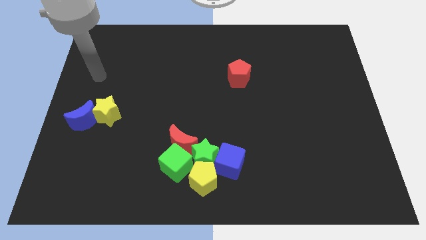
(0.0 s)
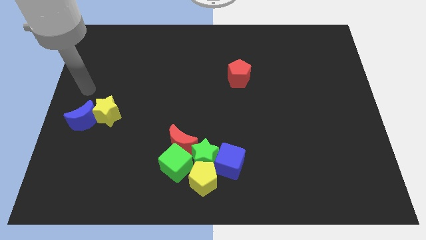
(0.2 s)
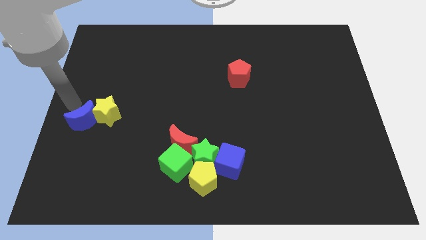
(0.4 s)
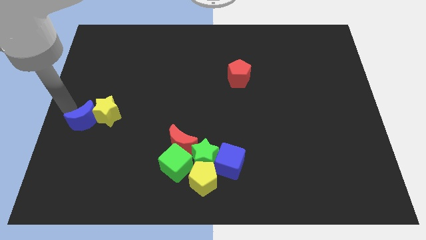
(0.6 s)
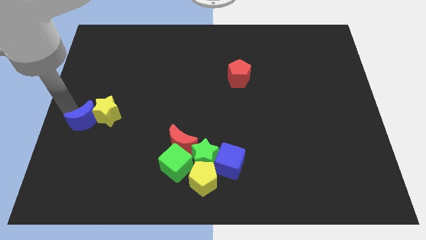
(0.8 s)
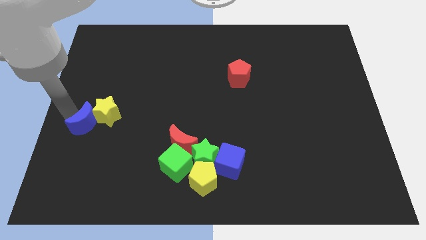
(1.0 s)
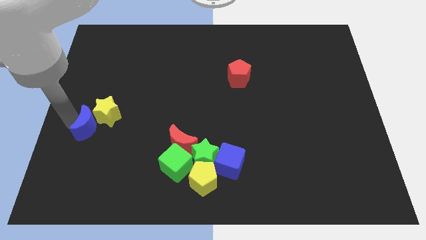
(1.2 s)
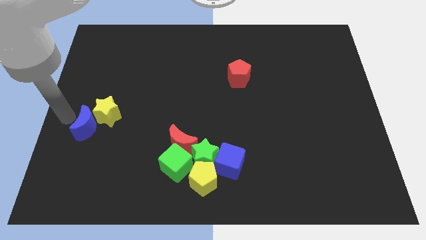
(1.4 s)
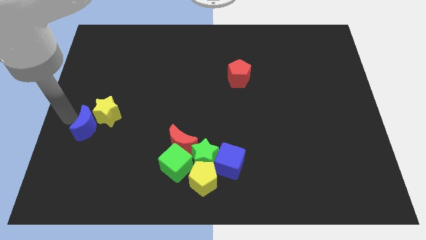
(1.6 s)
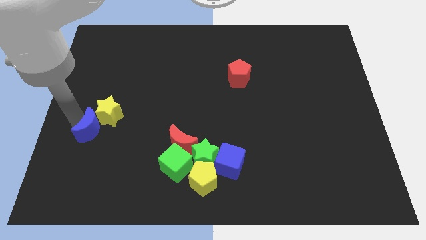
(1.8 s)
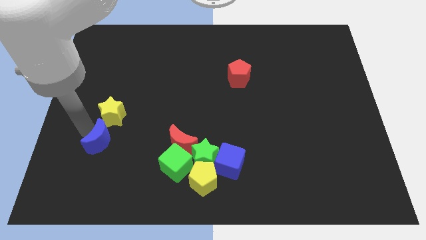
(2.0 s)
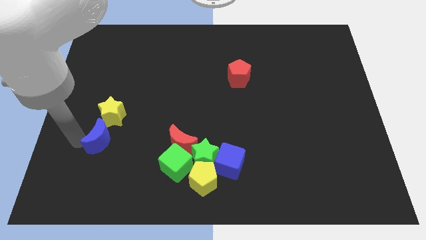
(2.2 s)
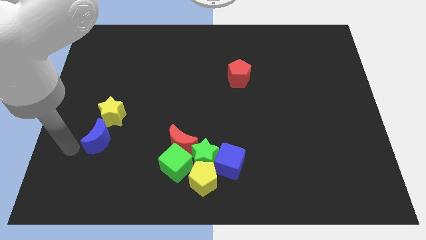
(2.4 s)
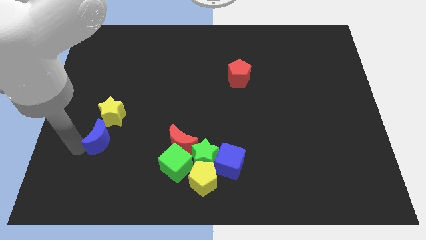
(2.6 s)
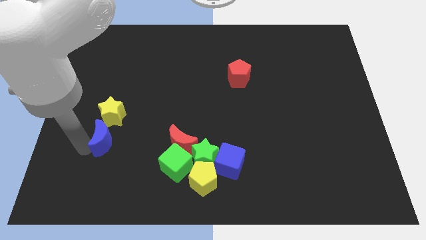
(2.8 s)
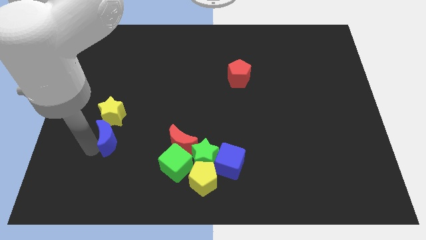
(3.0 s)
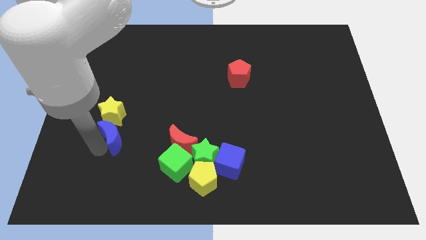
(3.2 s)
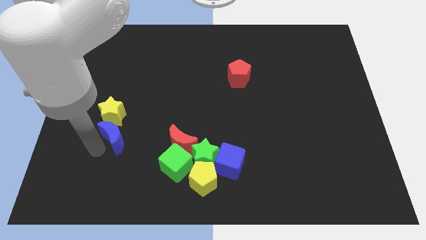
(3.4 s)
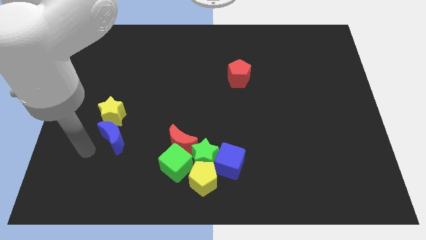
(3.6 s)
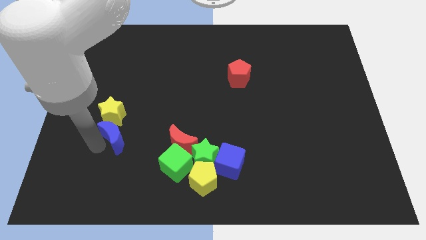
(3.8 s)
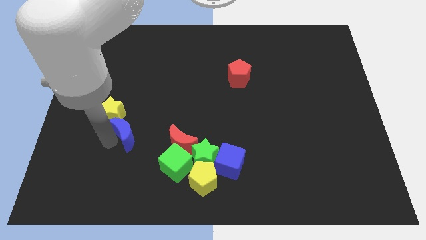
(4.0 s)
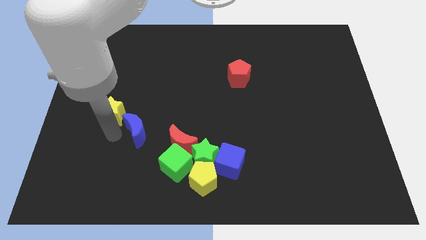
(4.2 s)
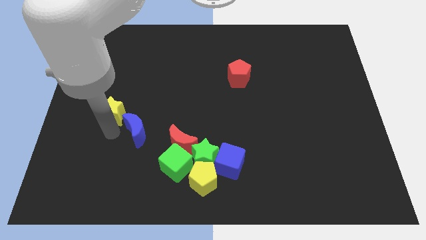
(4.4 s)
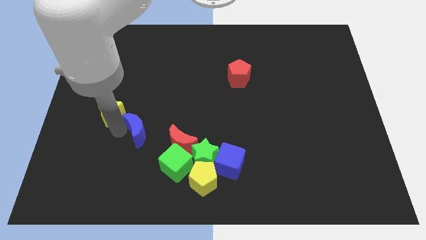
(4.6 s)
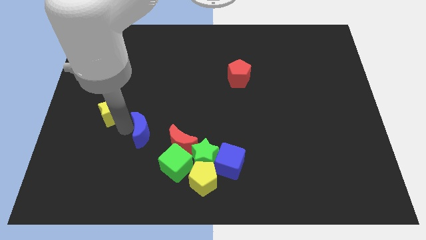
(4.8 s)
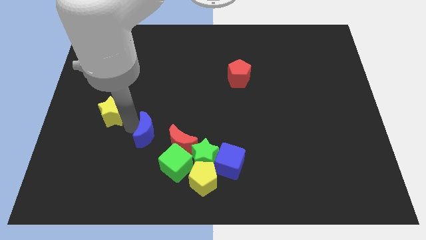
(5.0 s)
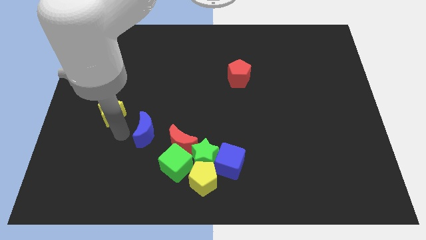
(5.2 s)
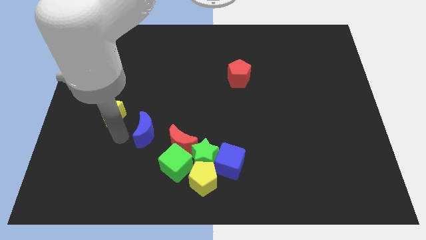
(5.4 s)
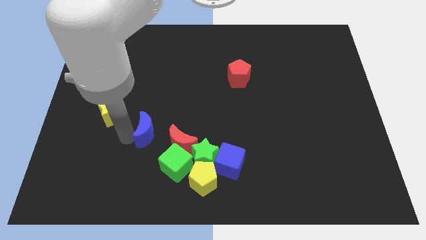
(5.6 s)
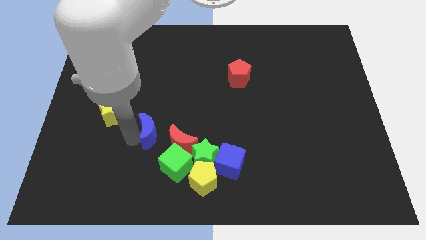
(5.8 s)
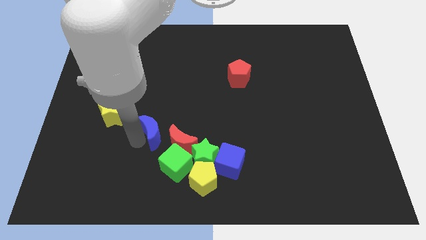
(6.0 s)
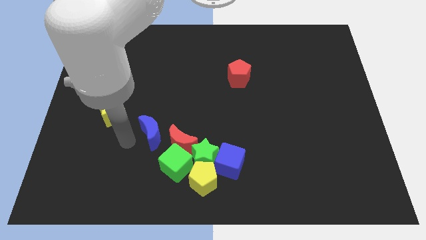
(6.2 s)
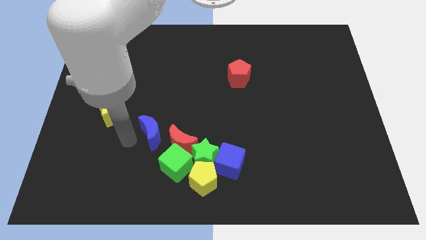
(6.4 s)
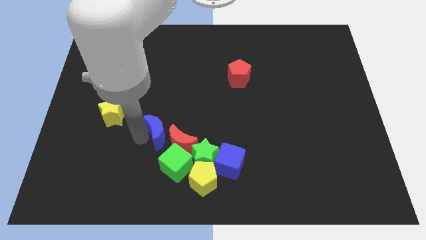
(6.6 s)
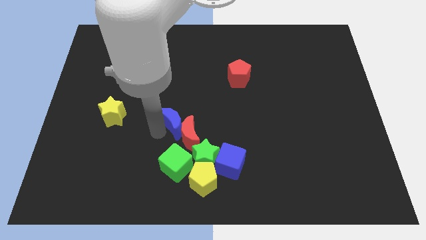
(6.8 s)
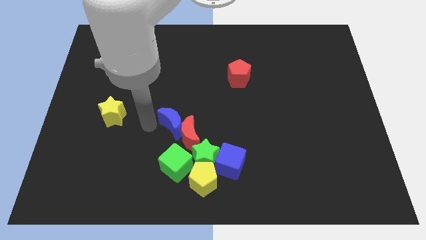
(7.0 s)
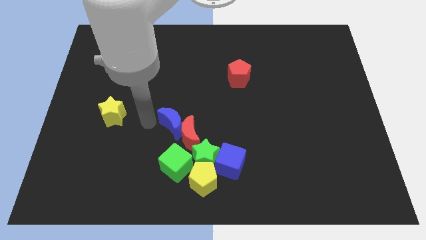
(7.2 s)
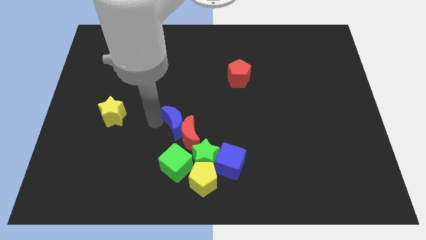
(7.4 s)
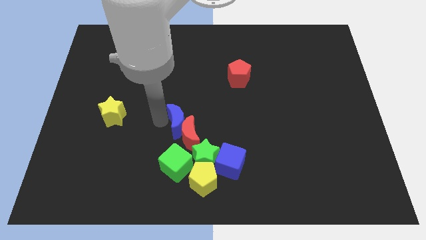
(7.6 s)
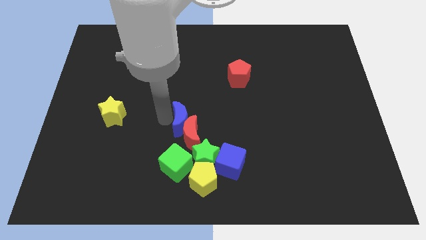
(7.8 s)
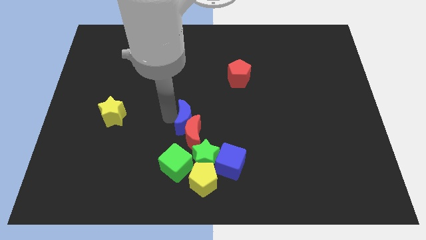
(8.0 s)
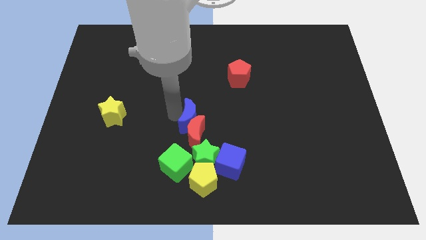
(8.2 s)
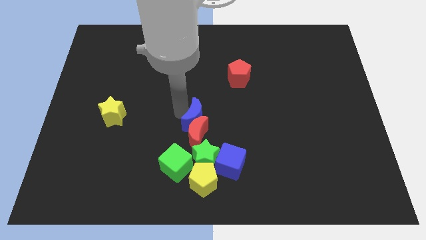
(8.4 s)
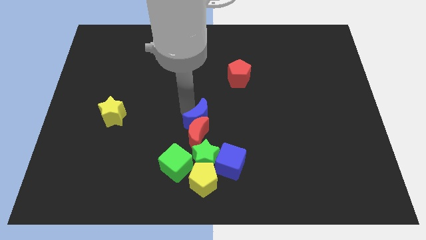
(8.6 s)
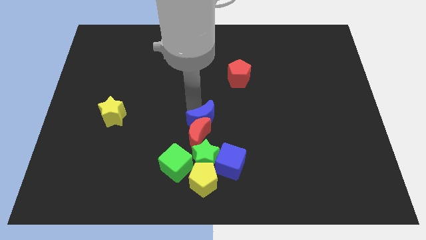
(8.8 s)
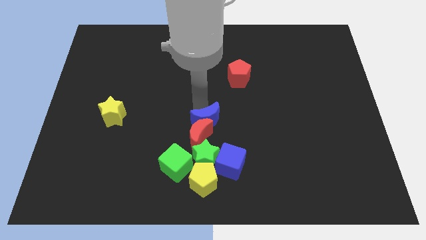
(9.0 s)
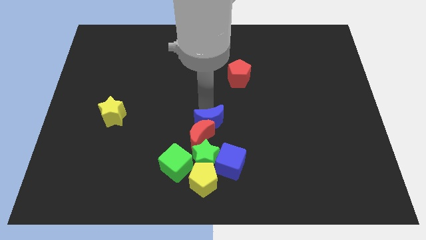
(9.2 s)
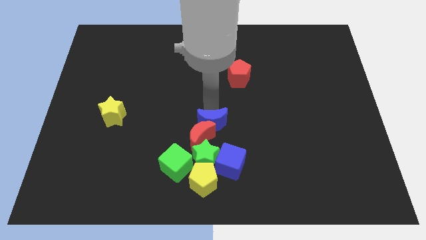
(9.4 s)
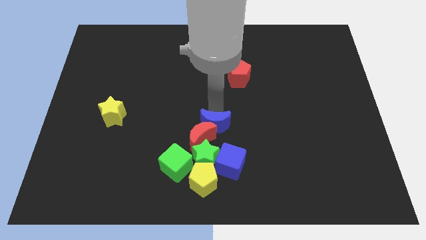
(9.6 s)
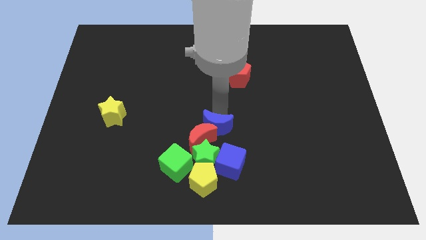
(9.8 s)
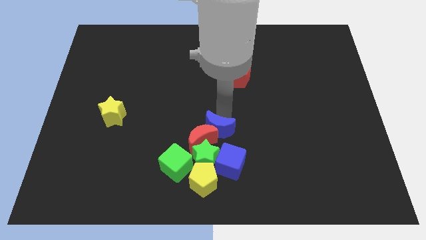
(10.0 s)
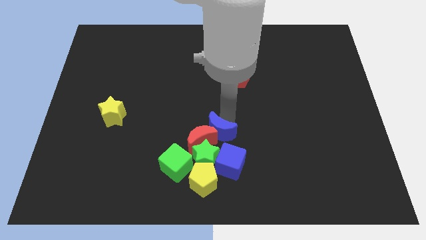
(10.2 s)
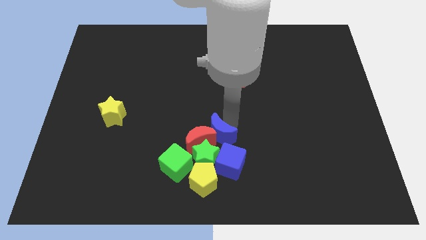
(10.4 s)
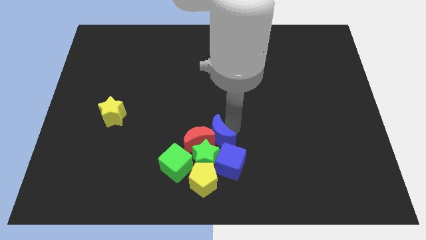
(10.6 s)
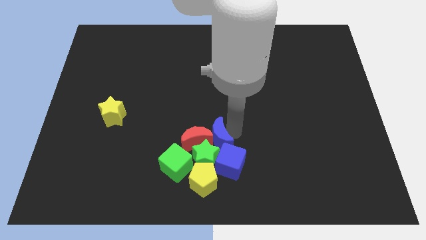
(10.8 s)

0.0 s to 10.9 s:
move the blue moon next to the green star

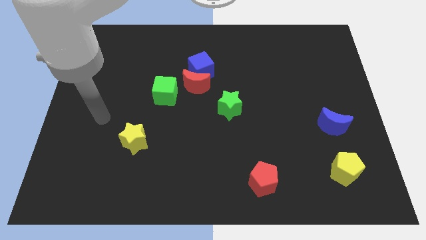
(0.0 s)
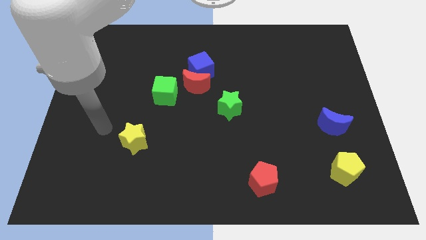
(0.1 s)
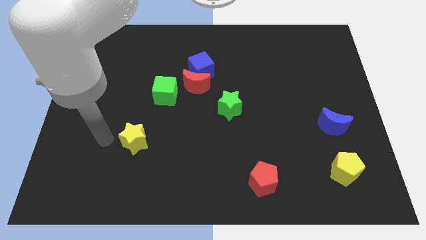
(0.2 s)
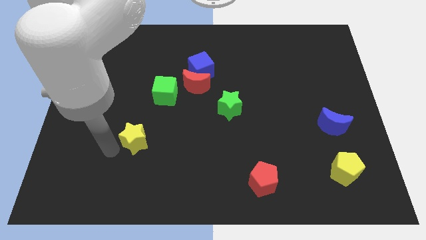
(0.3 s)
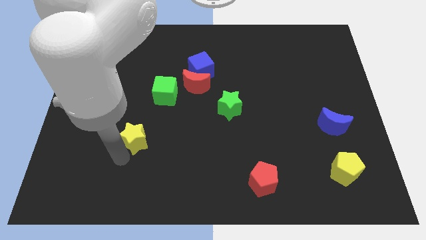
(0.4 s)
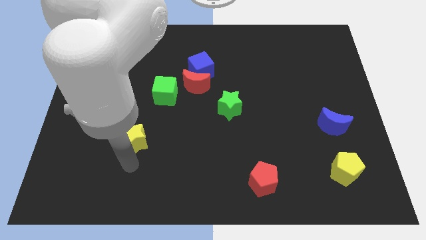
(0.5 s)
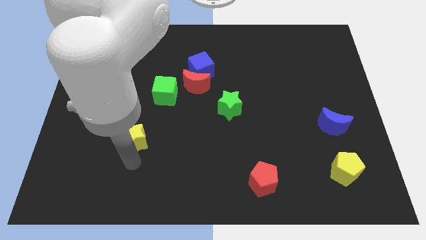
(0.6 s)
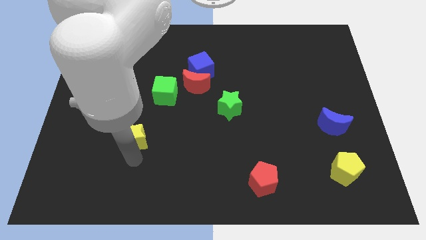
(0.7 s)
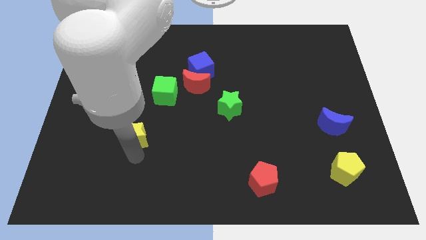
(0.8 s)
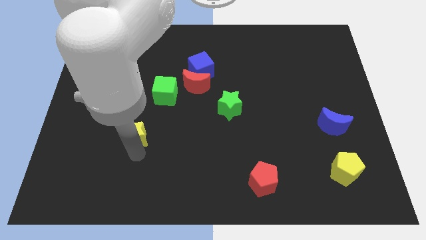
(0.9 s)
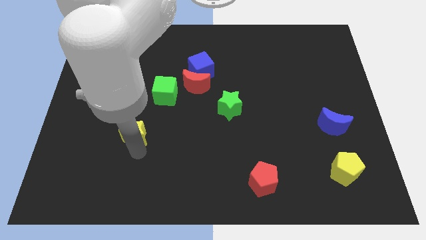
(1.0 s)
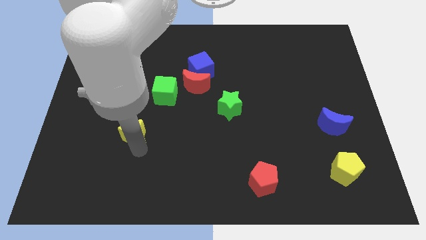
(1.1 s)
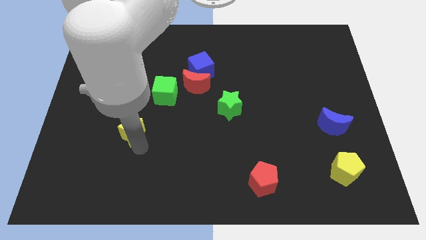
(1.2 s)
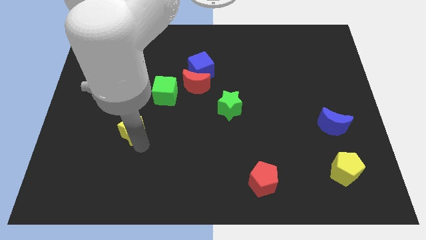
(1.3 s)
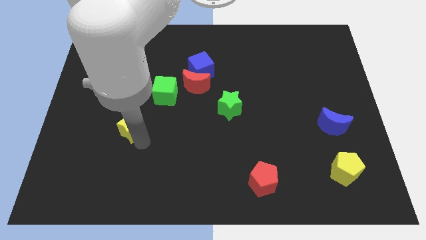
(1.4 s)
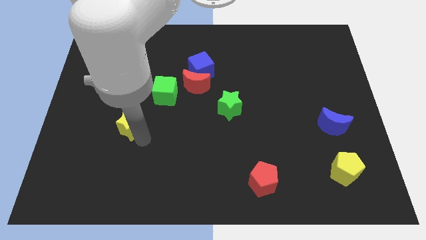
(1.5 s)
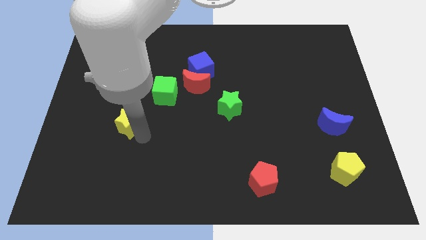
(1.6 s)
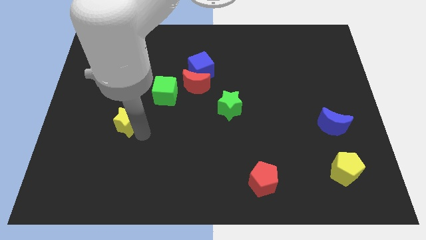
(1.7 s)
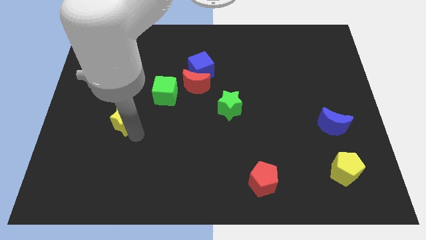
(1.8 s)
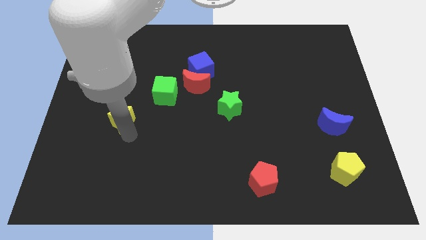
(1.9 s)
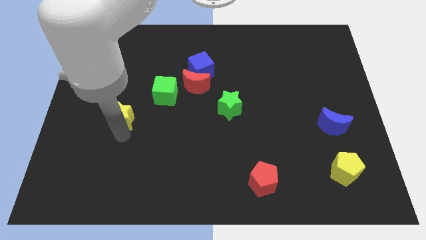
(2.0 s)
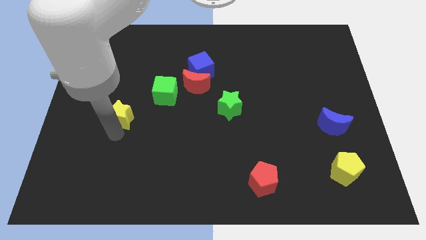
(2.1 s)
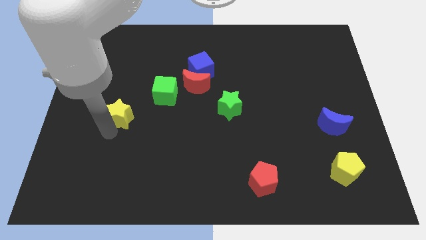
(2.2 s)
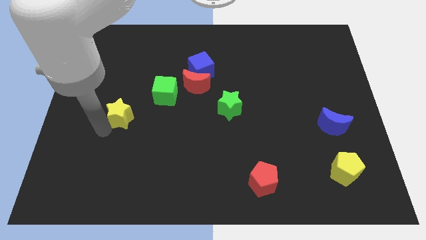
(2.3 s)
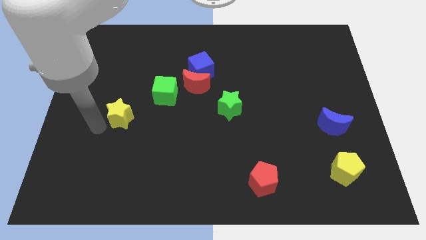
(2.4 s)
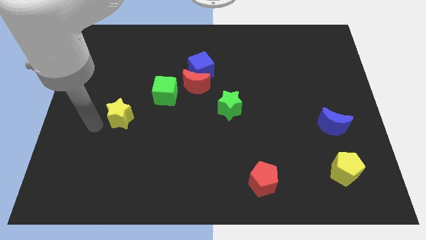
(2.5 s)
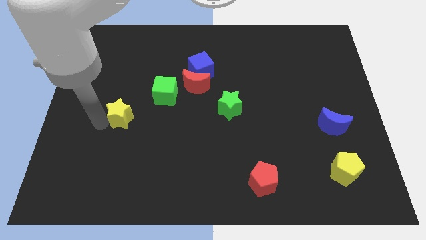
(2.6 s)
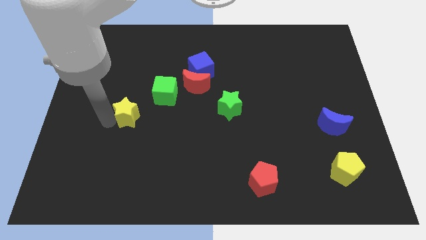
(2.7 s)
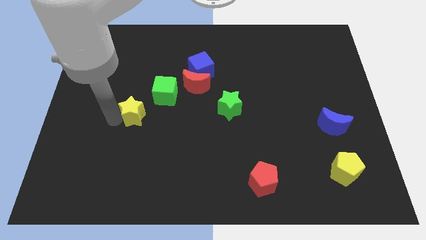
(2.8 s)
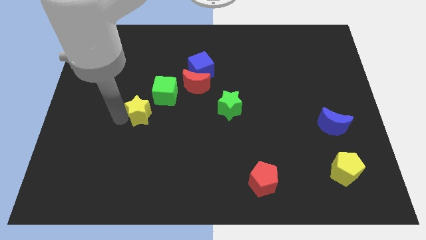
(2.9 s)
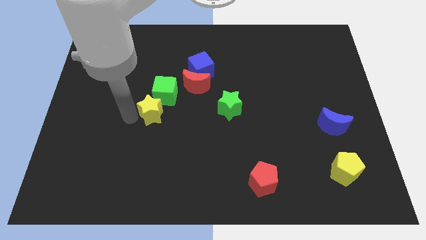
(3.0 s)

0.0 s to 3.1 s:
move the yellow star close to the green cube
